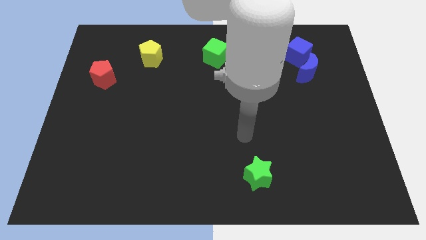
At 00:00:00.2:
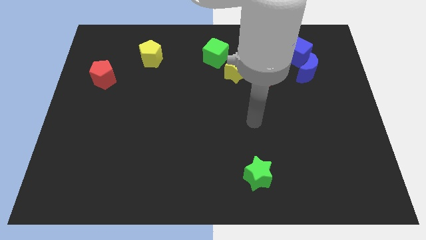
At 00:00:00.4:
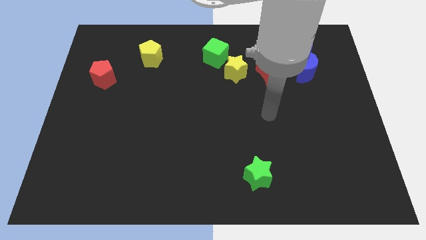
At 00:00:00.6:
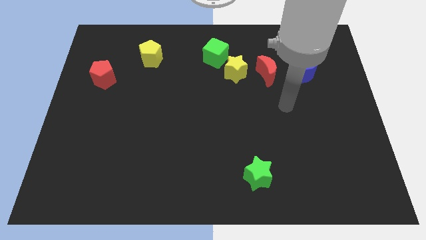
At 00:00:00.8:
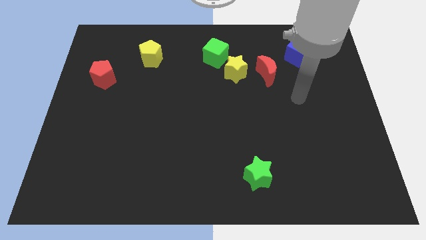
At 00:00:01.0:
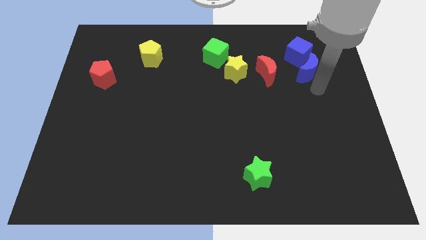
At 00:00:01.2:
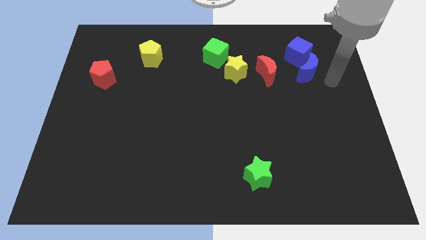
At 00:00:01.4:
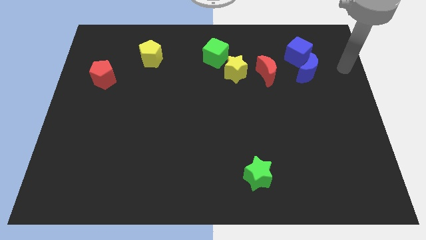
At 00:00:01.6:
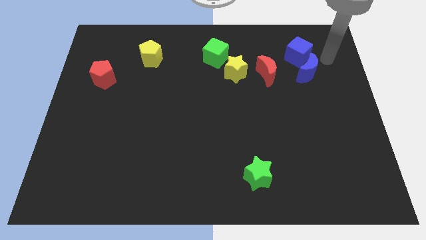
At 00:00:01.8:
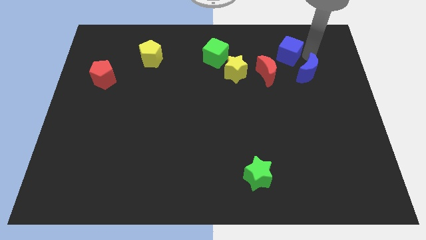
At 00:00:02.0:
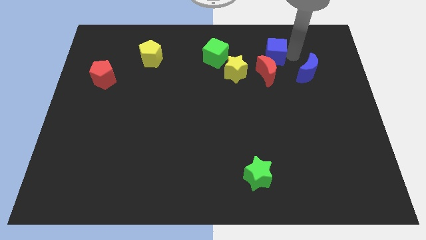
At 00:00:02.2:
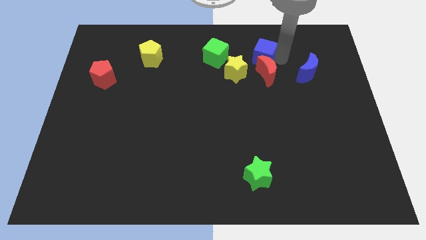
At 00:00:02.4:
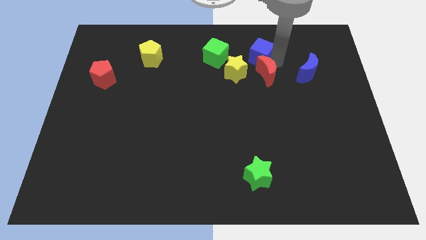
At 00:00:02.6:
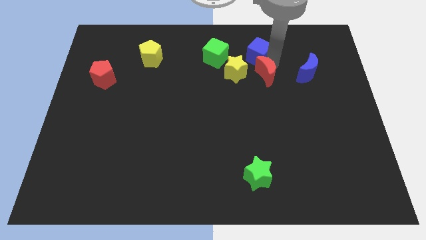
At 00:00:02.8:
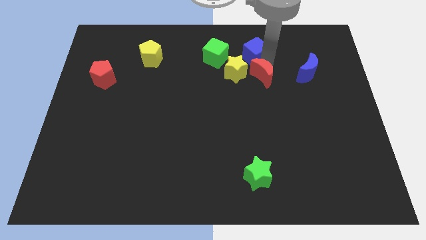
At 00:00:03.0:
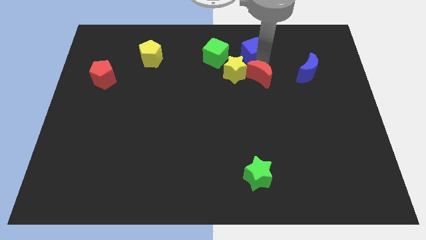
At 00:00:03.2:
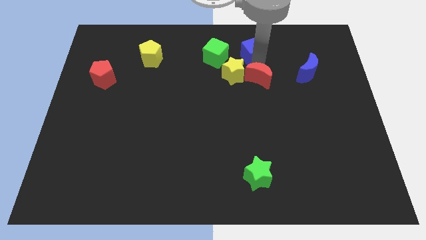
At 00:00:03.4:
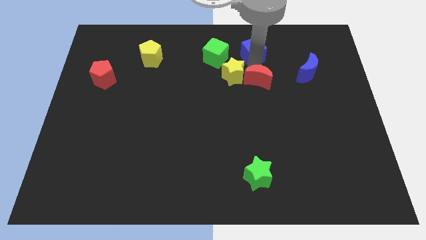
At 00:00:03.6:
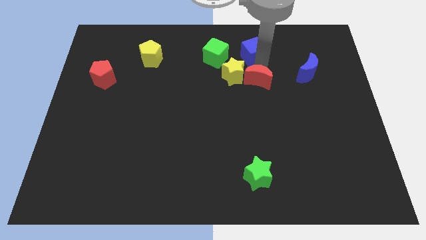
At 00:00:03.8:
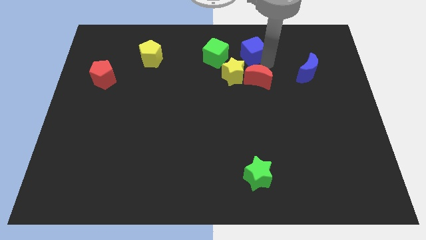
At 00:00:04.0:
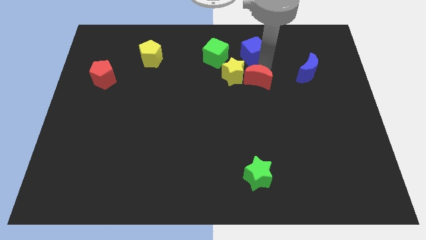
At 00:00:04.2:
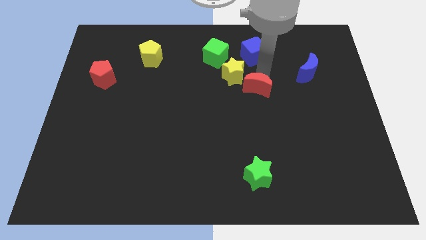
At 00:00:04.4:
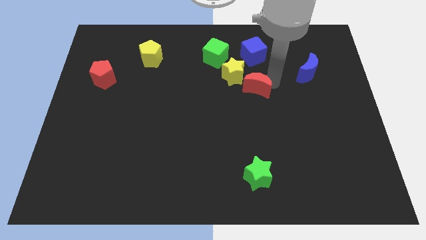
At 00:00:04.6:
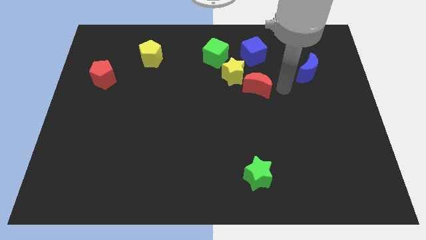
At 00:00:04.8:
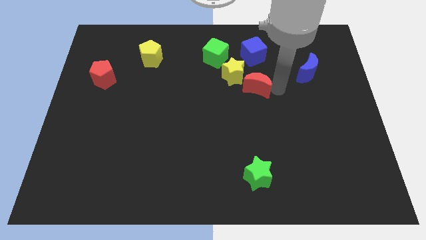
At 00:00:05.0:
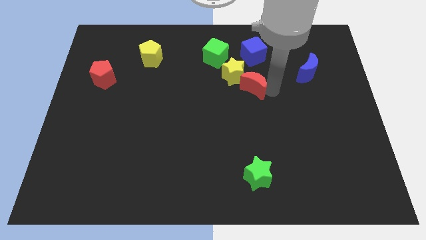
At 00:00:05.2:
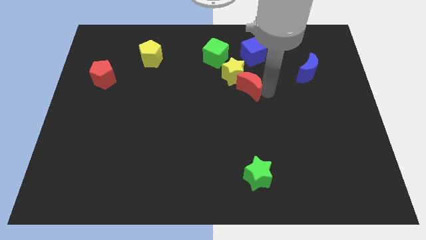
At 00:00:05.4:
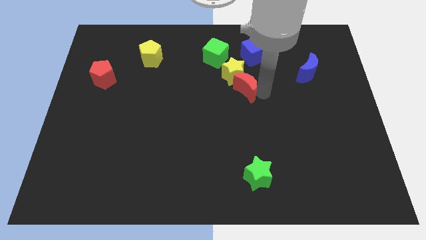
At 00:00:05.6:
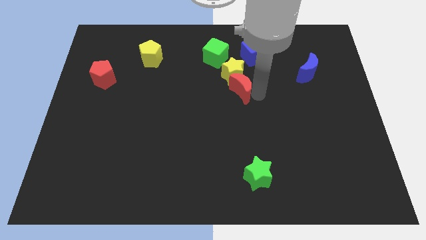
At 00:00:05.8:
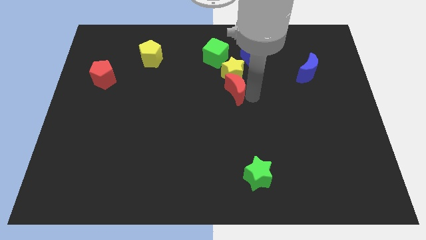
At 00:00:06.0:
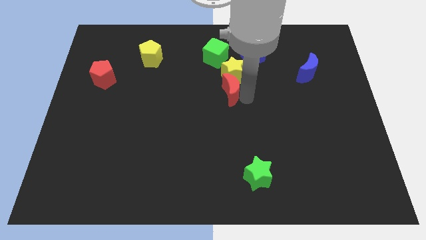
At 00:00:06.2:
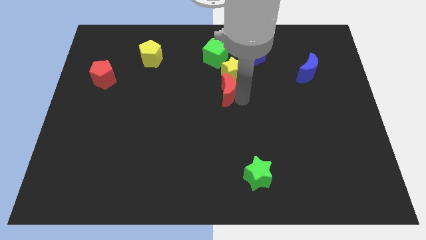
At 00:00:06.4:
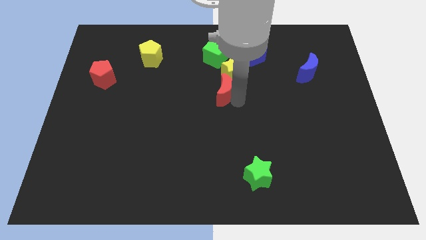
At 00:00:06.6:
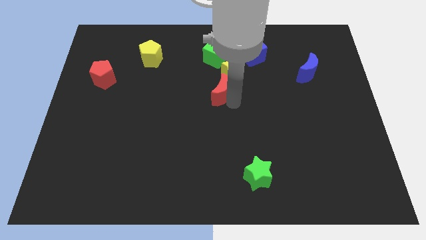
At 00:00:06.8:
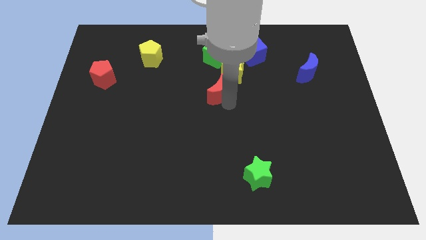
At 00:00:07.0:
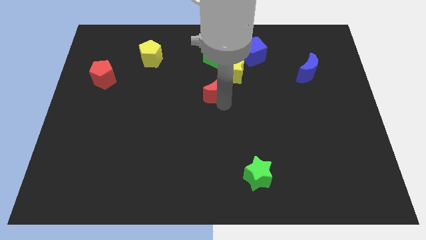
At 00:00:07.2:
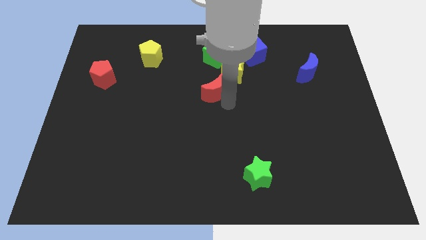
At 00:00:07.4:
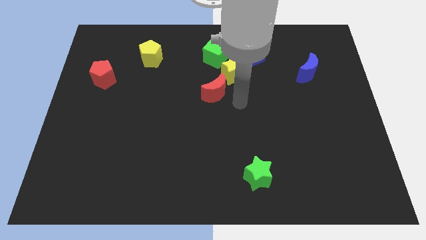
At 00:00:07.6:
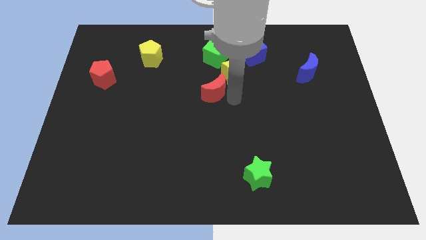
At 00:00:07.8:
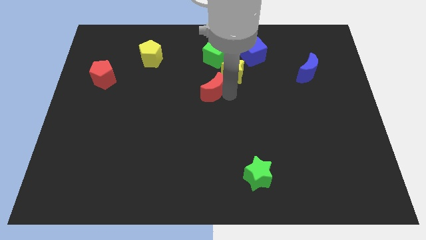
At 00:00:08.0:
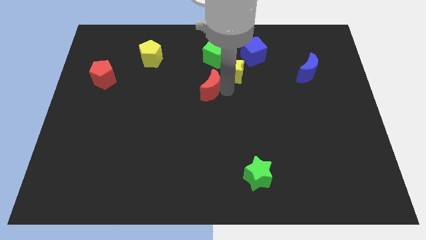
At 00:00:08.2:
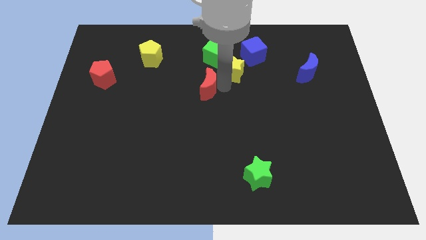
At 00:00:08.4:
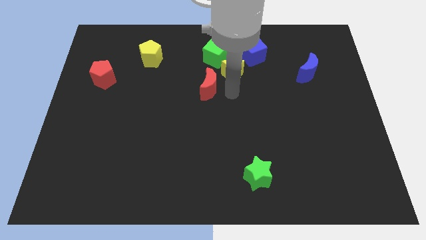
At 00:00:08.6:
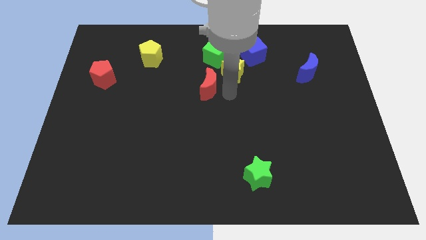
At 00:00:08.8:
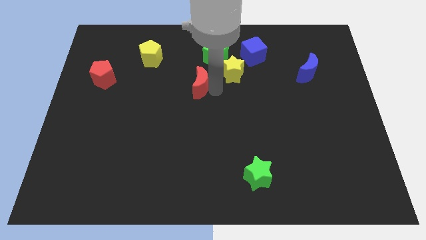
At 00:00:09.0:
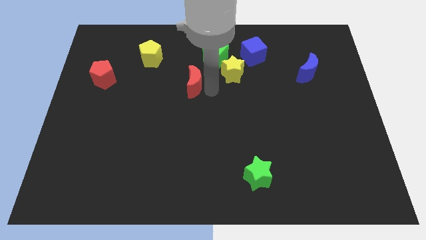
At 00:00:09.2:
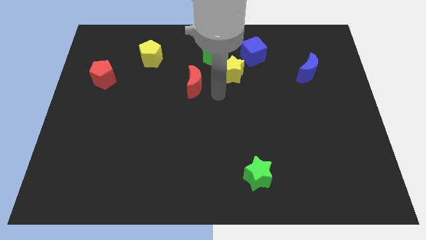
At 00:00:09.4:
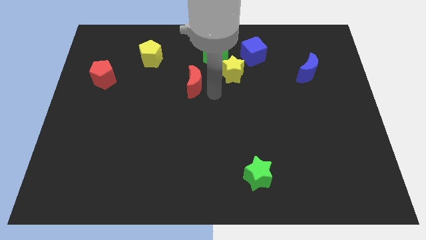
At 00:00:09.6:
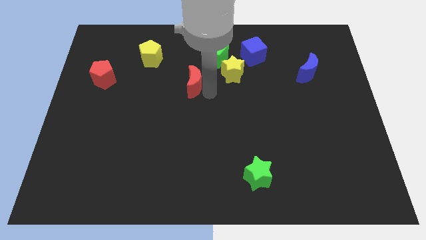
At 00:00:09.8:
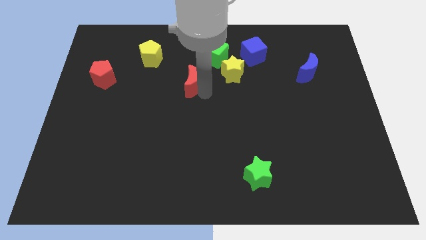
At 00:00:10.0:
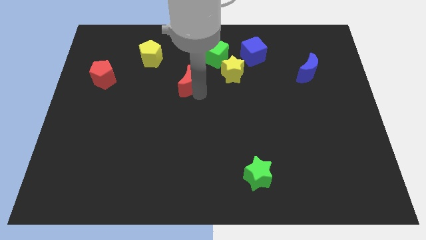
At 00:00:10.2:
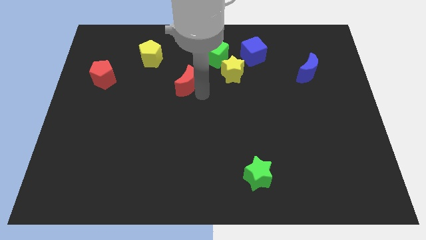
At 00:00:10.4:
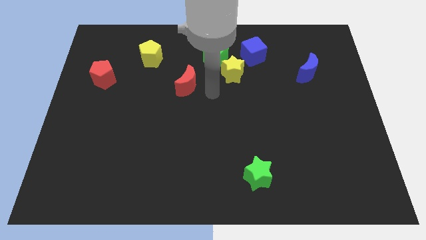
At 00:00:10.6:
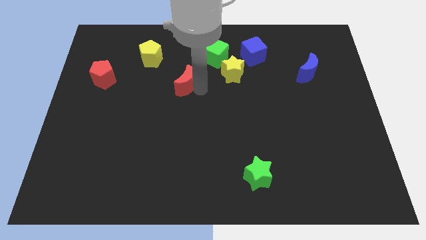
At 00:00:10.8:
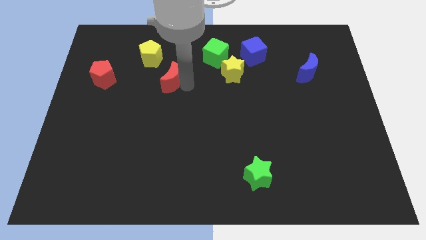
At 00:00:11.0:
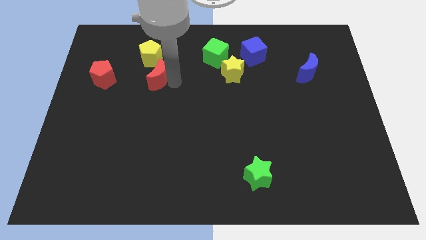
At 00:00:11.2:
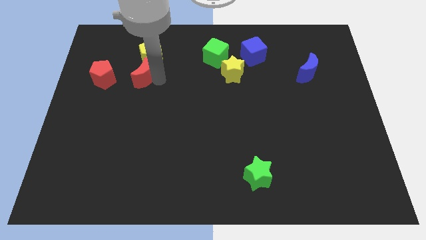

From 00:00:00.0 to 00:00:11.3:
put the red moon to the bottom left of the yellow pentagon

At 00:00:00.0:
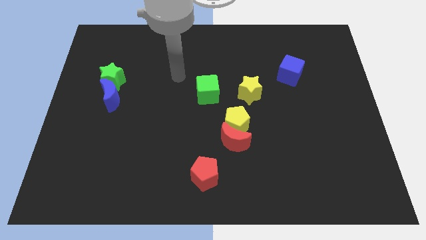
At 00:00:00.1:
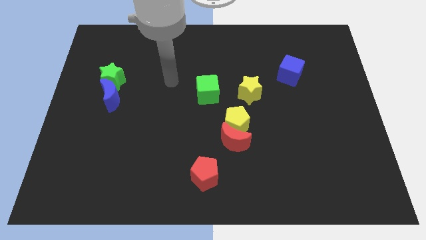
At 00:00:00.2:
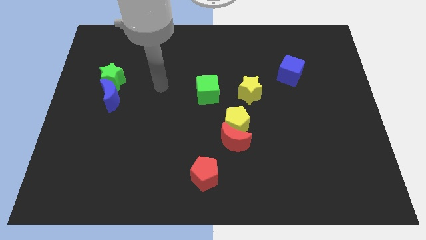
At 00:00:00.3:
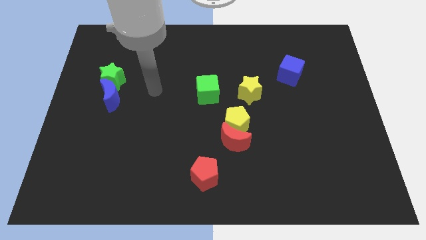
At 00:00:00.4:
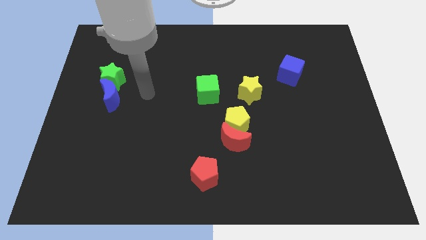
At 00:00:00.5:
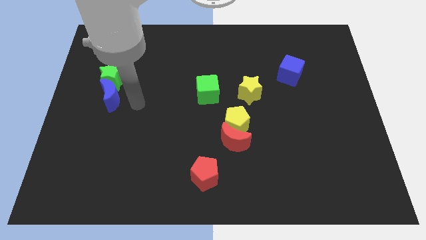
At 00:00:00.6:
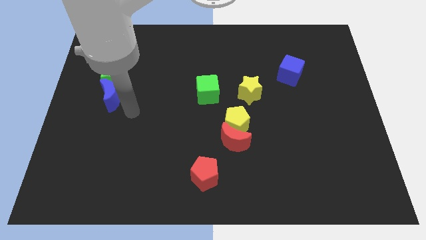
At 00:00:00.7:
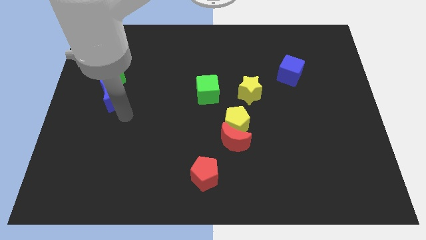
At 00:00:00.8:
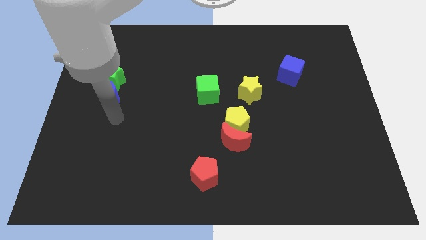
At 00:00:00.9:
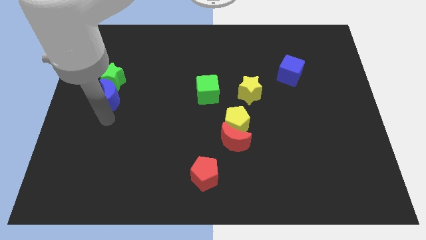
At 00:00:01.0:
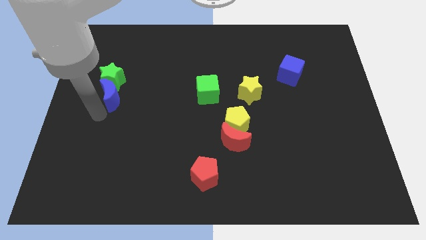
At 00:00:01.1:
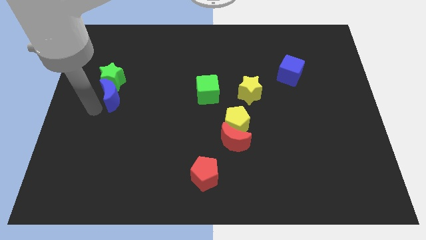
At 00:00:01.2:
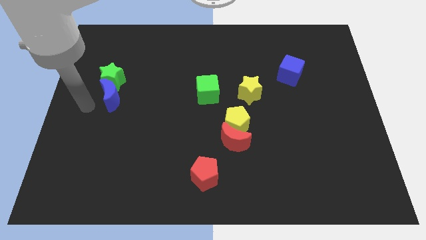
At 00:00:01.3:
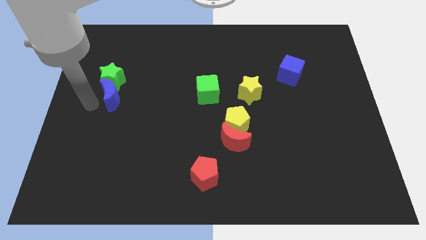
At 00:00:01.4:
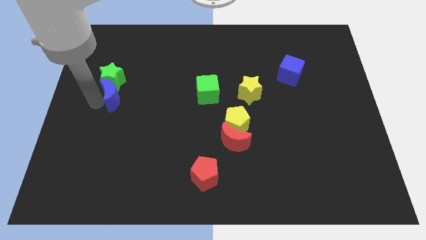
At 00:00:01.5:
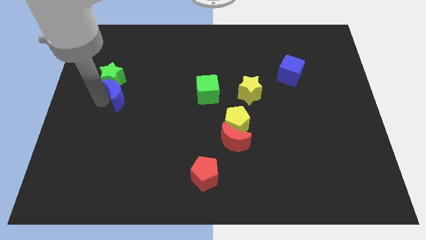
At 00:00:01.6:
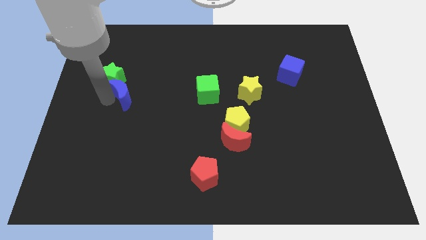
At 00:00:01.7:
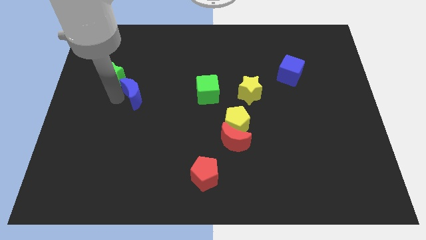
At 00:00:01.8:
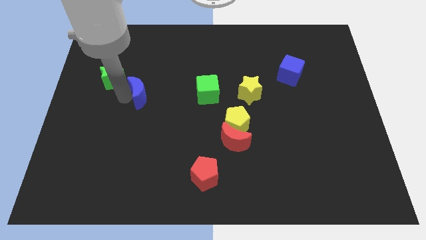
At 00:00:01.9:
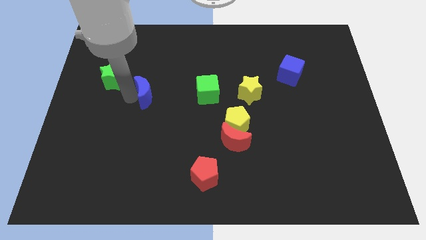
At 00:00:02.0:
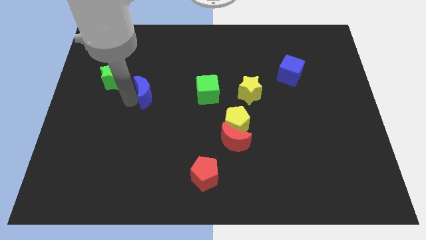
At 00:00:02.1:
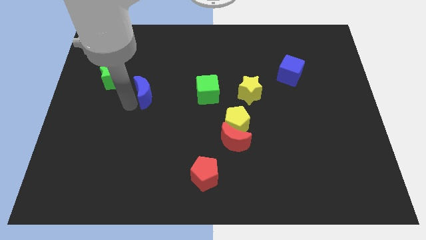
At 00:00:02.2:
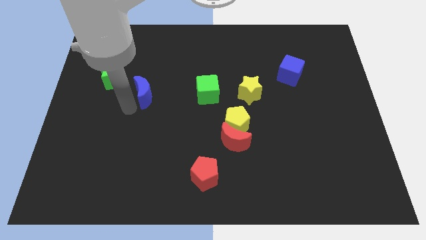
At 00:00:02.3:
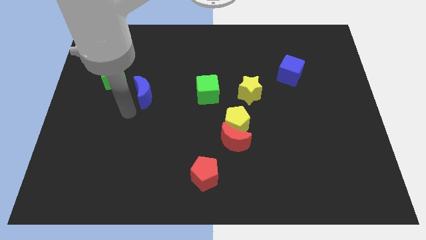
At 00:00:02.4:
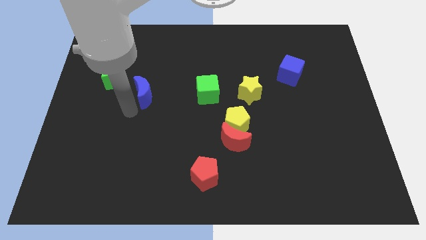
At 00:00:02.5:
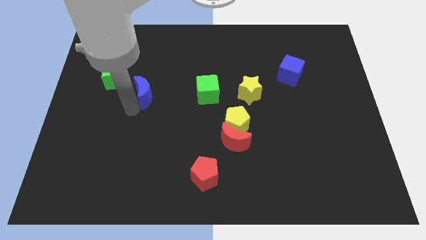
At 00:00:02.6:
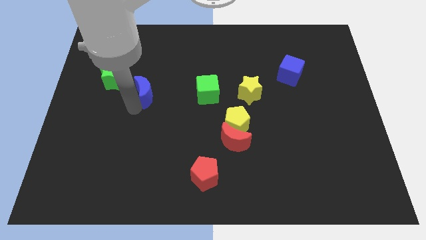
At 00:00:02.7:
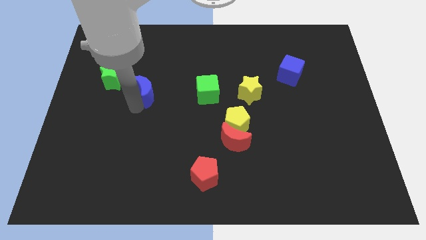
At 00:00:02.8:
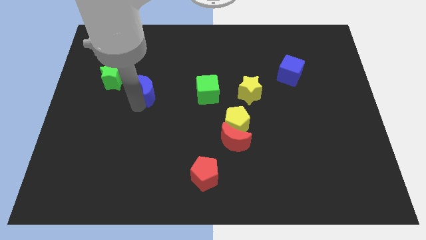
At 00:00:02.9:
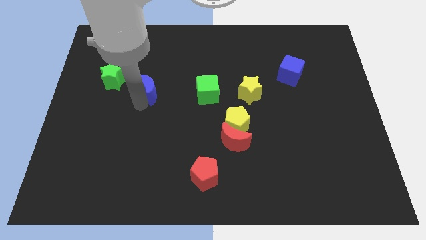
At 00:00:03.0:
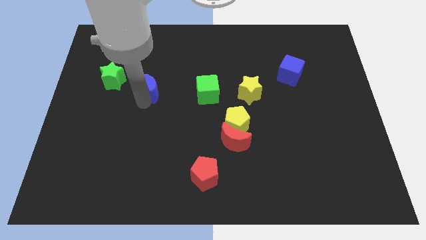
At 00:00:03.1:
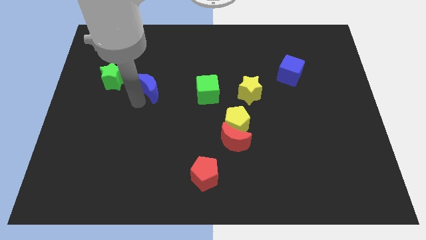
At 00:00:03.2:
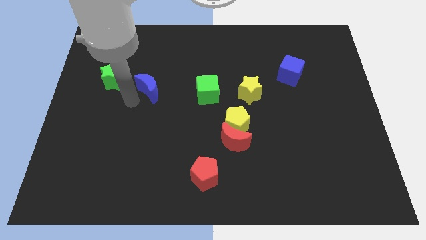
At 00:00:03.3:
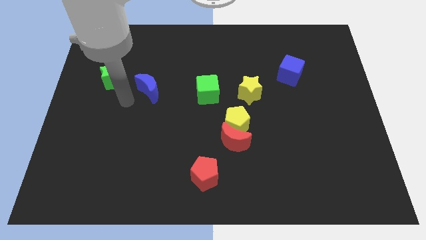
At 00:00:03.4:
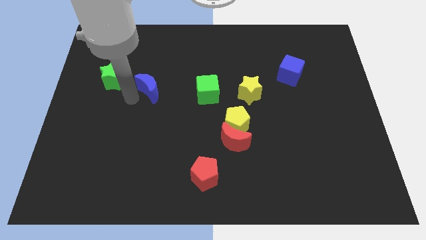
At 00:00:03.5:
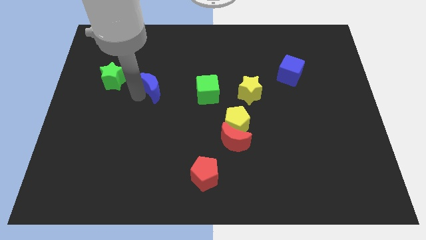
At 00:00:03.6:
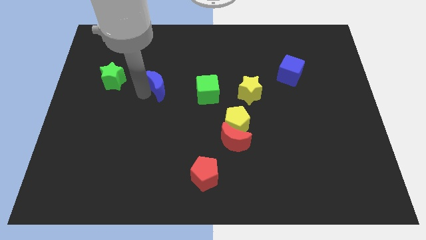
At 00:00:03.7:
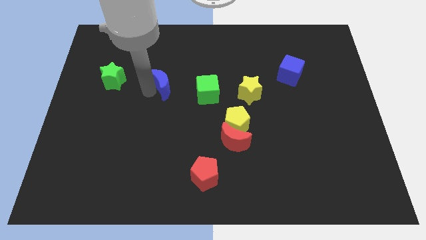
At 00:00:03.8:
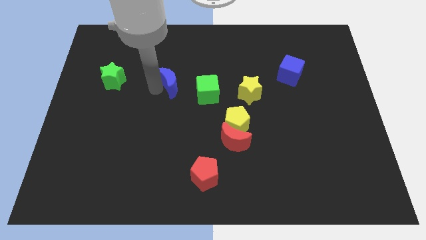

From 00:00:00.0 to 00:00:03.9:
push the blue moon to the top left side of the green cube
